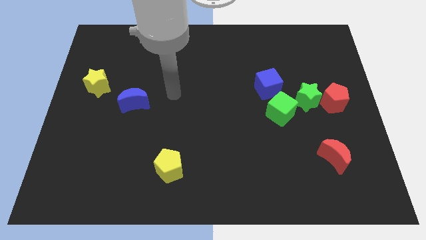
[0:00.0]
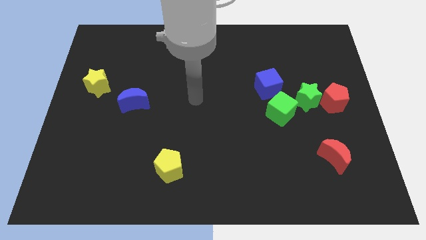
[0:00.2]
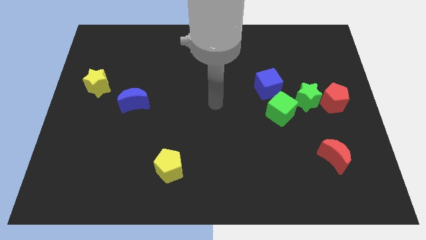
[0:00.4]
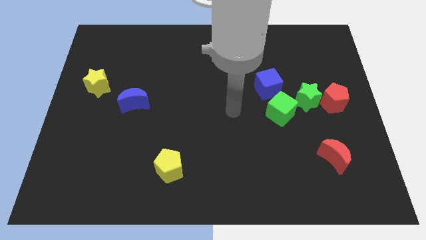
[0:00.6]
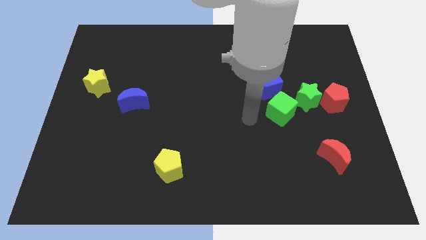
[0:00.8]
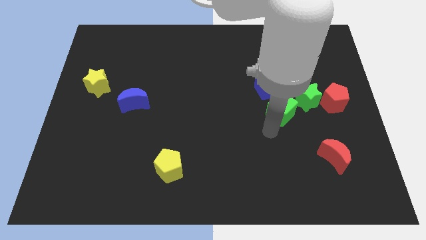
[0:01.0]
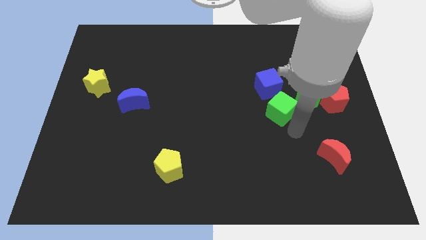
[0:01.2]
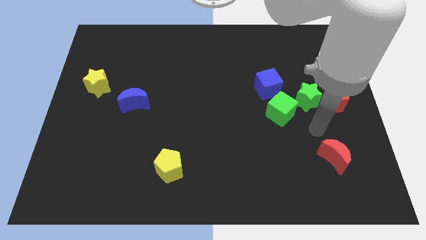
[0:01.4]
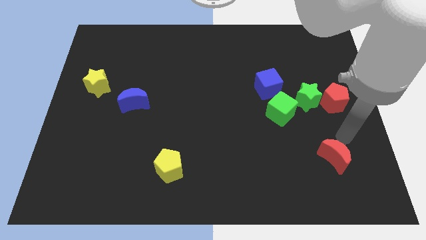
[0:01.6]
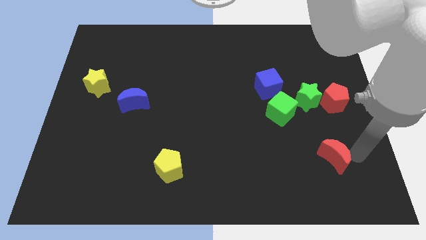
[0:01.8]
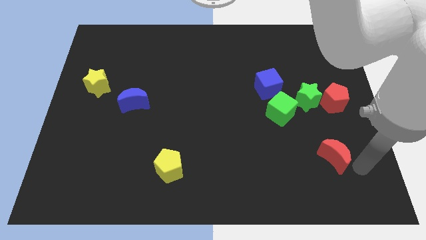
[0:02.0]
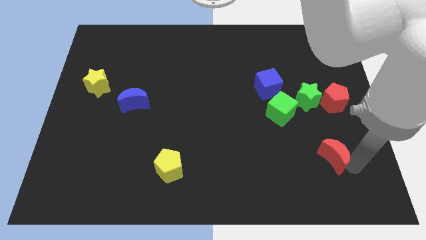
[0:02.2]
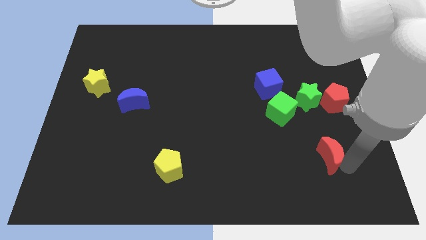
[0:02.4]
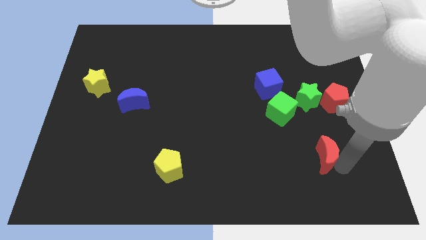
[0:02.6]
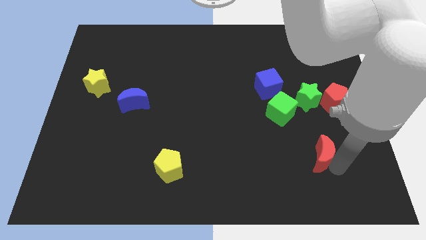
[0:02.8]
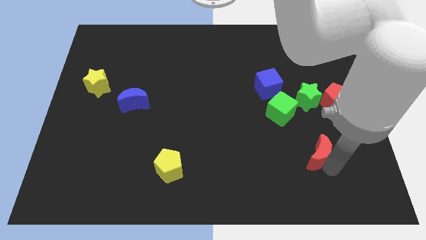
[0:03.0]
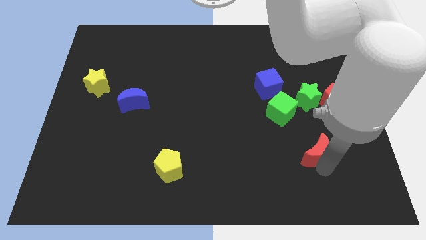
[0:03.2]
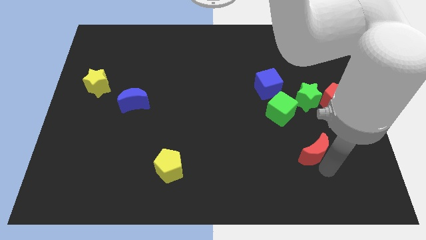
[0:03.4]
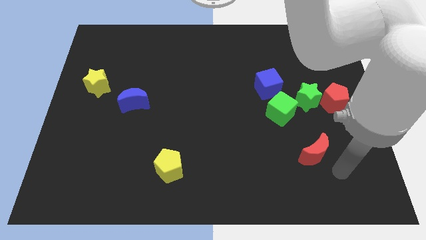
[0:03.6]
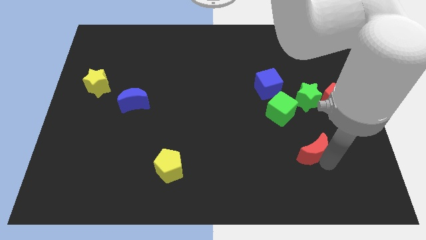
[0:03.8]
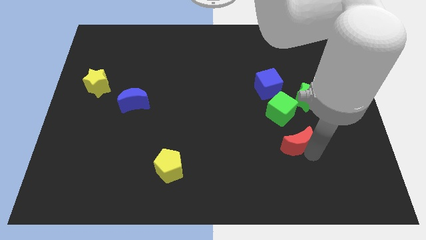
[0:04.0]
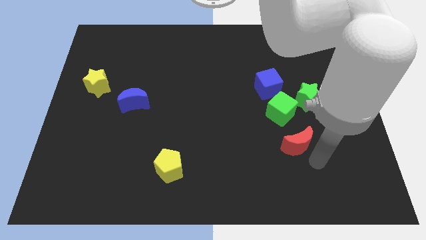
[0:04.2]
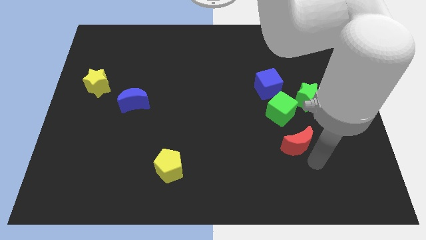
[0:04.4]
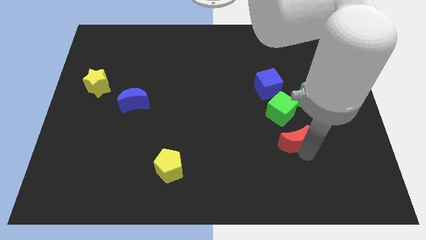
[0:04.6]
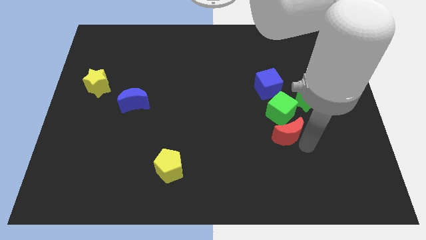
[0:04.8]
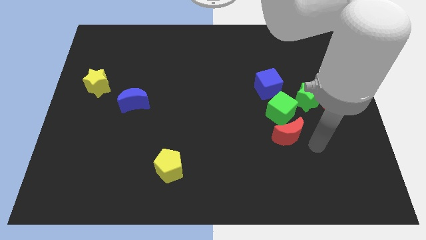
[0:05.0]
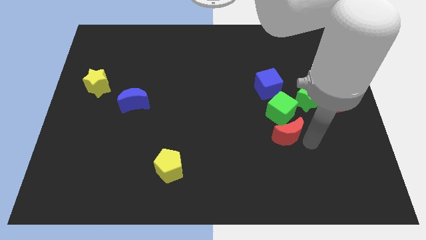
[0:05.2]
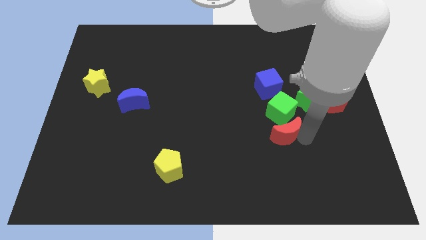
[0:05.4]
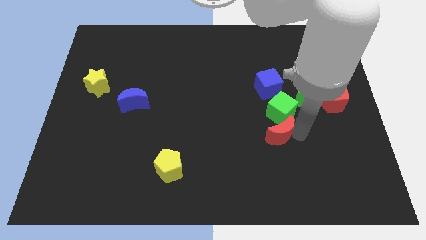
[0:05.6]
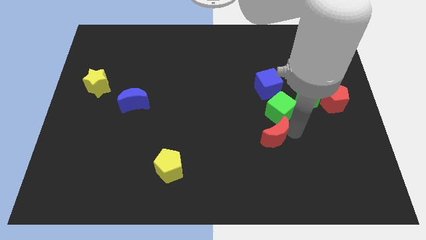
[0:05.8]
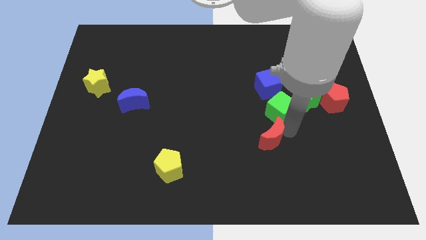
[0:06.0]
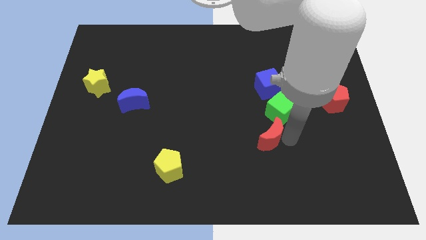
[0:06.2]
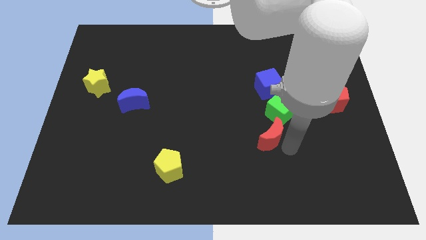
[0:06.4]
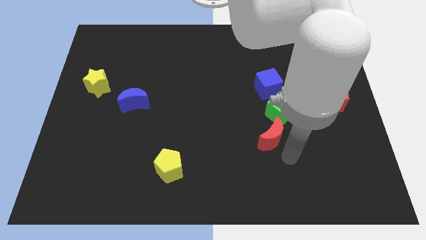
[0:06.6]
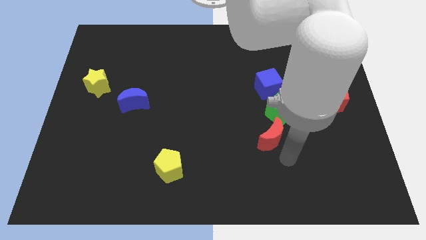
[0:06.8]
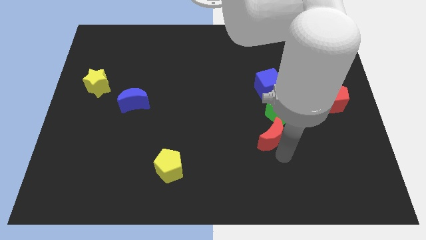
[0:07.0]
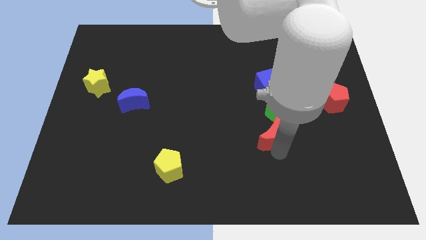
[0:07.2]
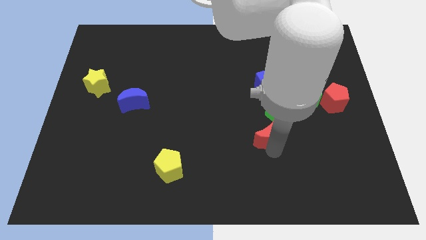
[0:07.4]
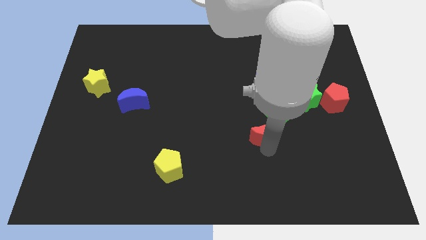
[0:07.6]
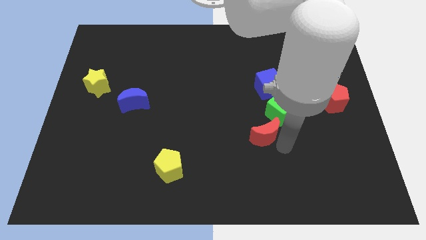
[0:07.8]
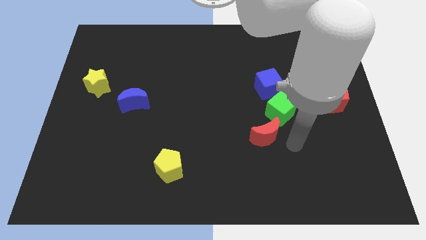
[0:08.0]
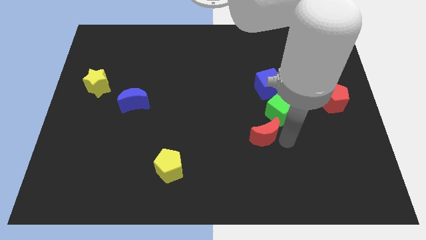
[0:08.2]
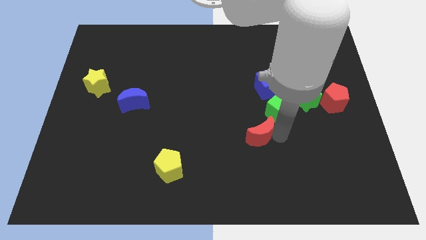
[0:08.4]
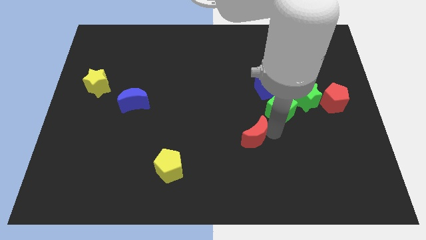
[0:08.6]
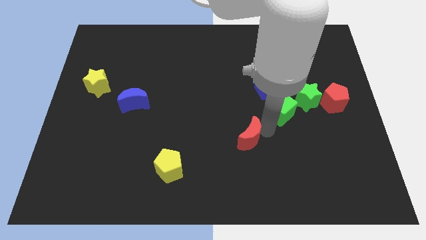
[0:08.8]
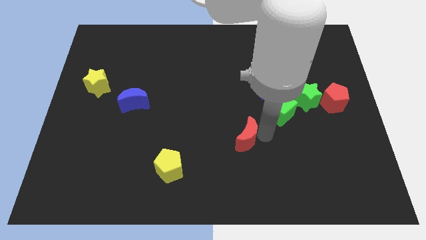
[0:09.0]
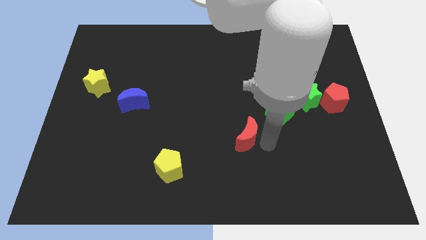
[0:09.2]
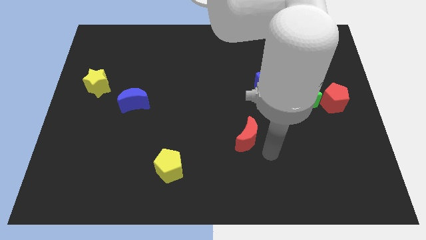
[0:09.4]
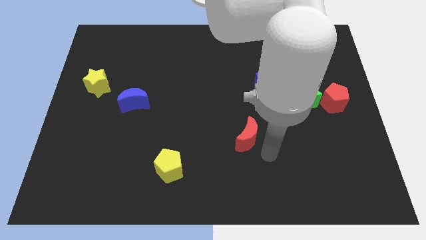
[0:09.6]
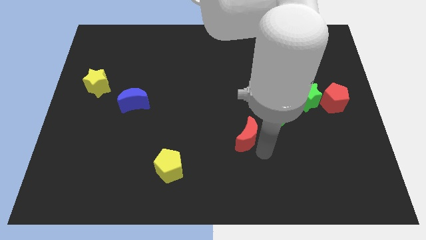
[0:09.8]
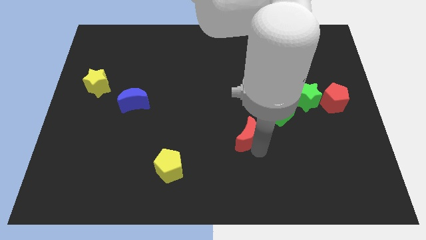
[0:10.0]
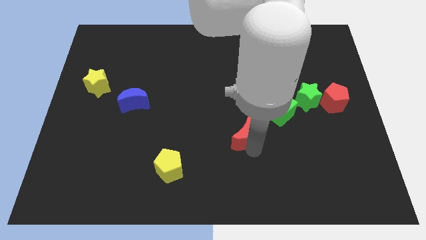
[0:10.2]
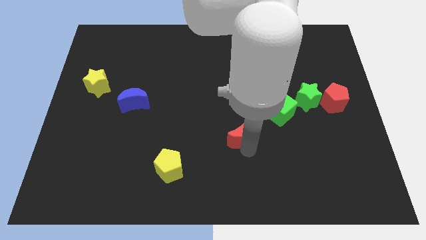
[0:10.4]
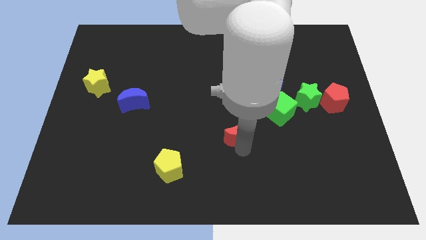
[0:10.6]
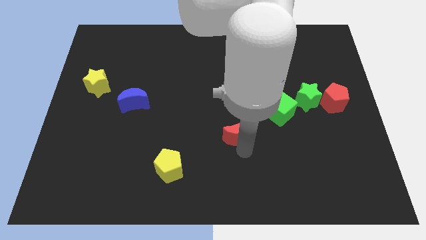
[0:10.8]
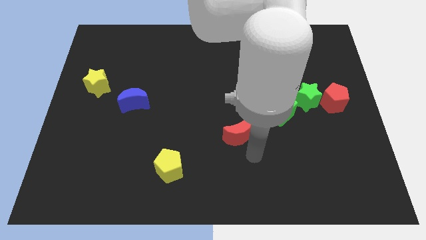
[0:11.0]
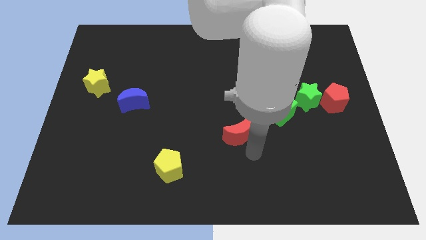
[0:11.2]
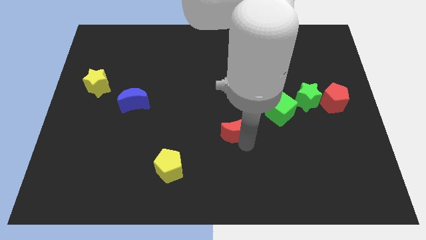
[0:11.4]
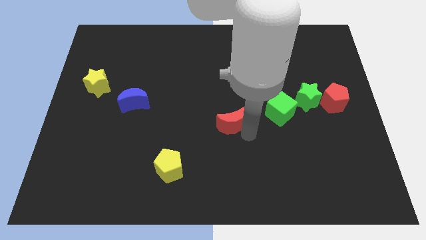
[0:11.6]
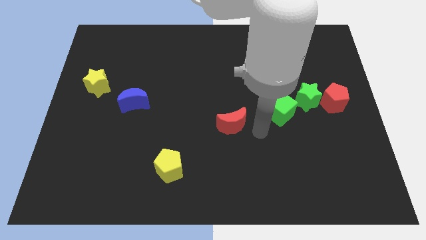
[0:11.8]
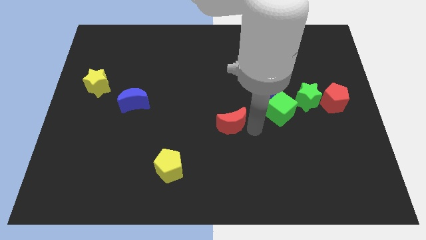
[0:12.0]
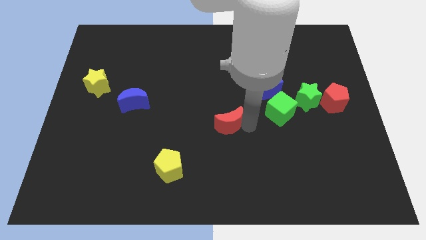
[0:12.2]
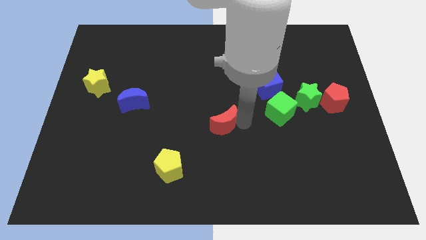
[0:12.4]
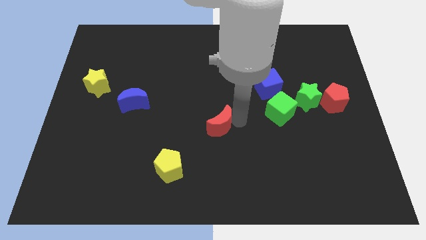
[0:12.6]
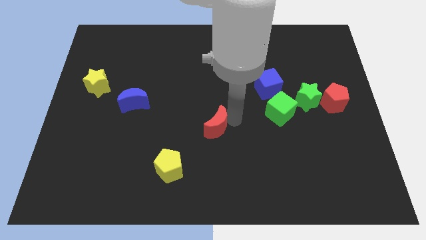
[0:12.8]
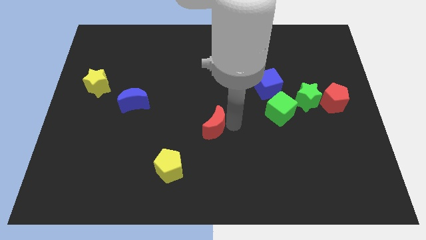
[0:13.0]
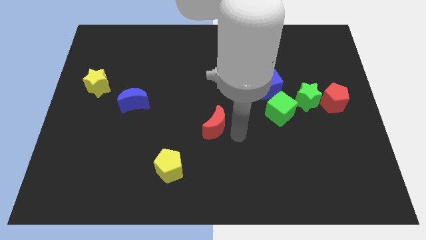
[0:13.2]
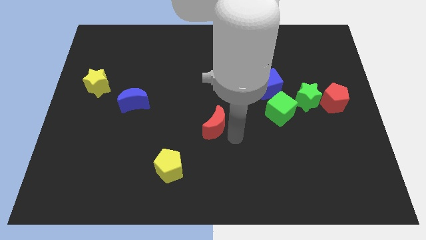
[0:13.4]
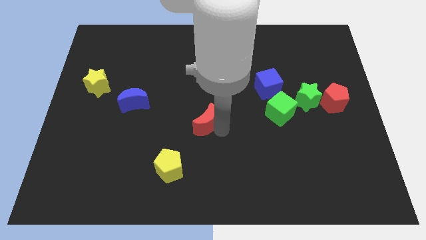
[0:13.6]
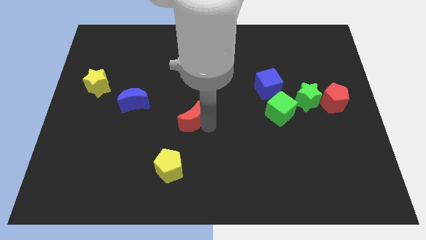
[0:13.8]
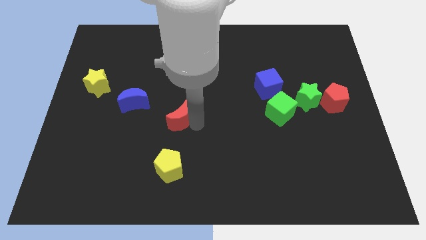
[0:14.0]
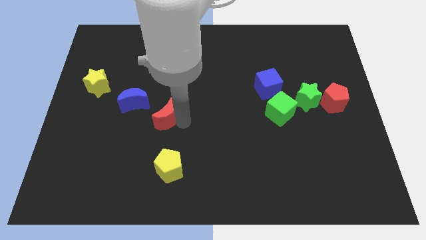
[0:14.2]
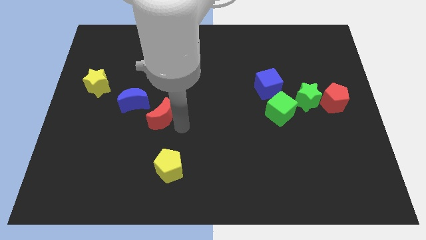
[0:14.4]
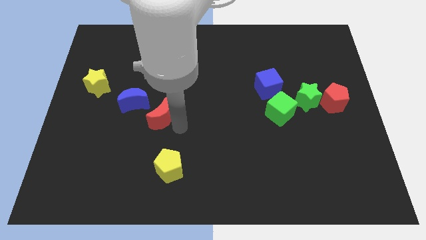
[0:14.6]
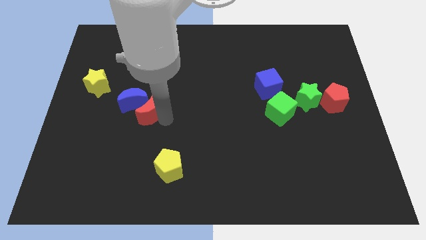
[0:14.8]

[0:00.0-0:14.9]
put the red moon close to the blue moon
